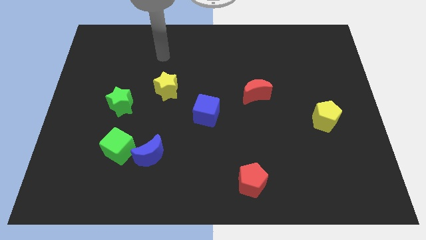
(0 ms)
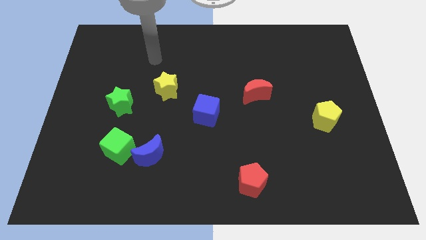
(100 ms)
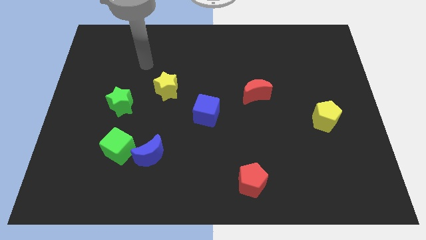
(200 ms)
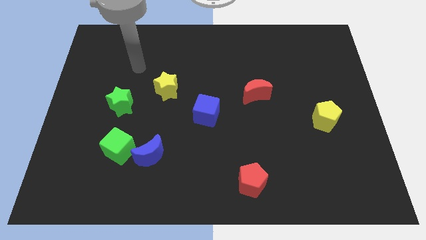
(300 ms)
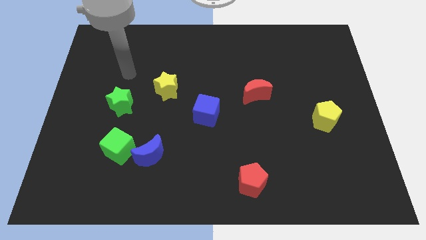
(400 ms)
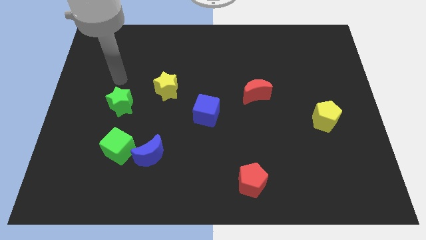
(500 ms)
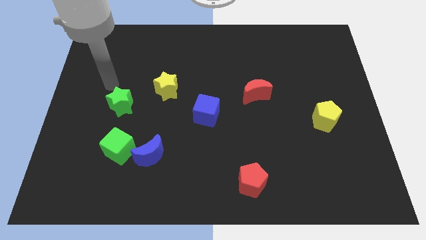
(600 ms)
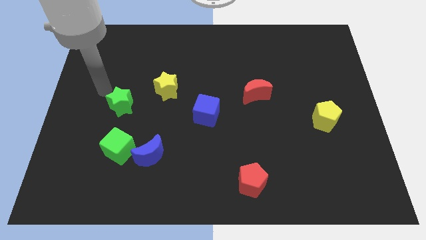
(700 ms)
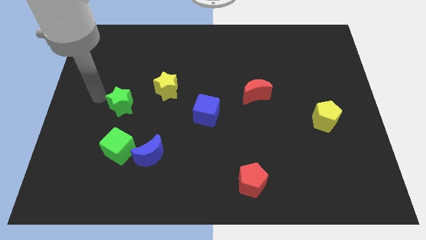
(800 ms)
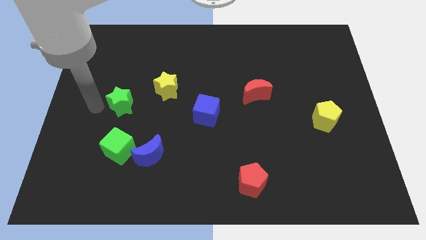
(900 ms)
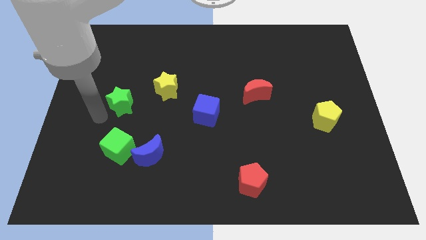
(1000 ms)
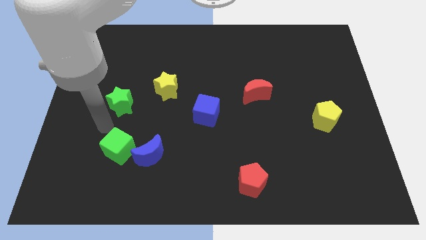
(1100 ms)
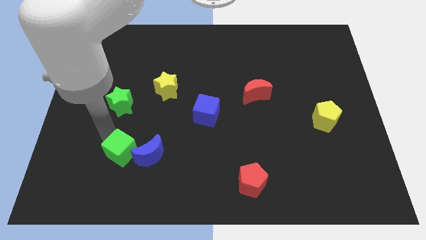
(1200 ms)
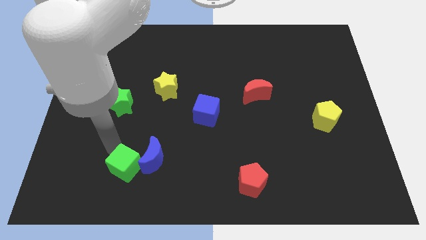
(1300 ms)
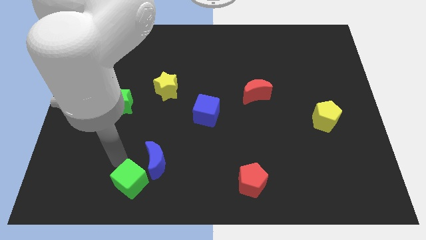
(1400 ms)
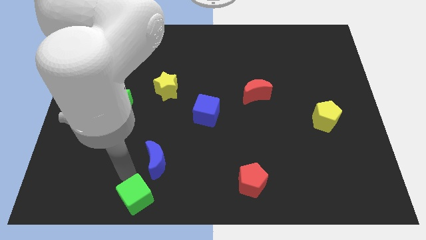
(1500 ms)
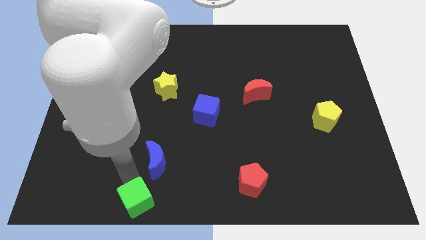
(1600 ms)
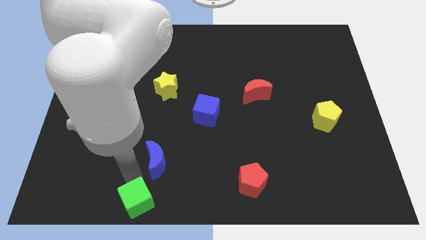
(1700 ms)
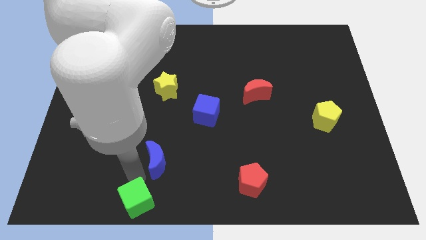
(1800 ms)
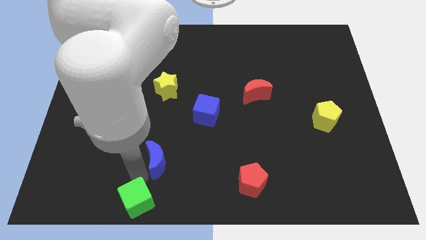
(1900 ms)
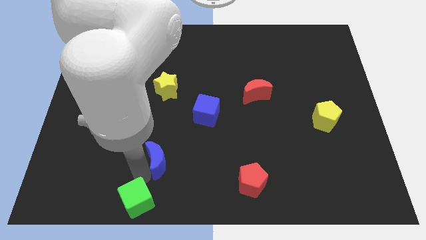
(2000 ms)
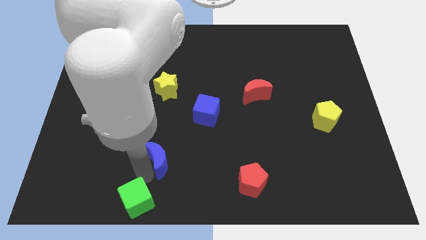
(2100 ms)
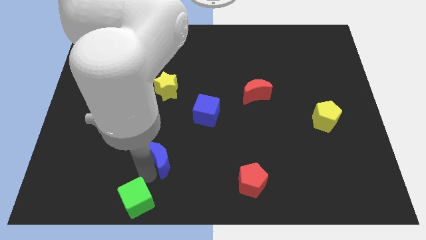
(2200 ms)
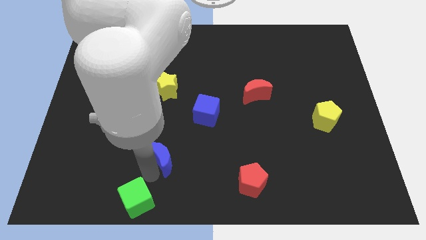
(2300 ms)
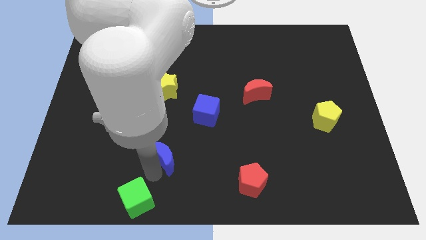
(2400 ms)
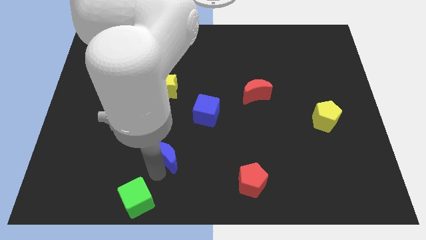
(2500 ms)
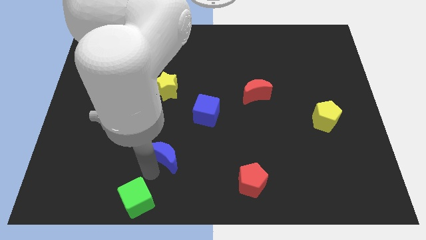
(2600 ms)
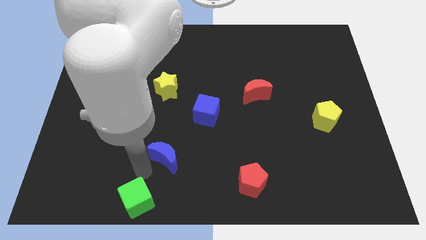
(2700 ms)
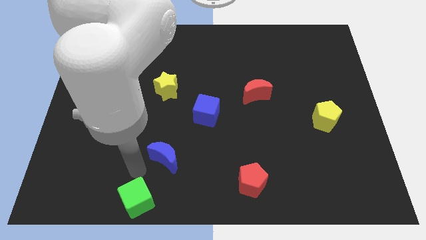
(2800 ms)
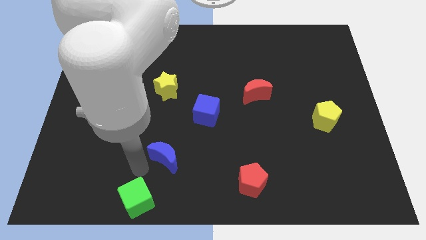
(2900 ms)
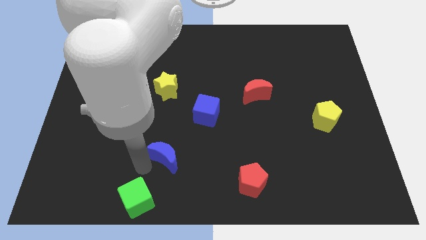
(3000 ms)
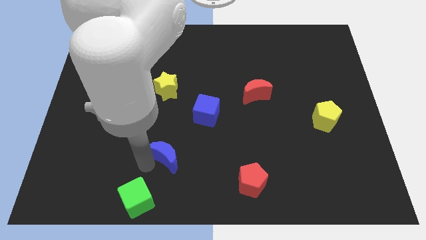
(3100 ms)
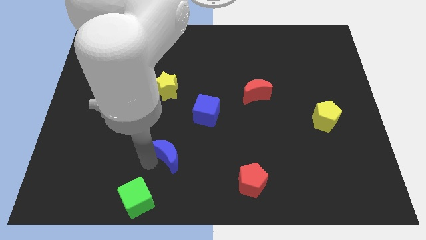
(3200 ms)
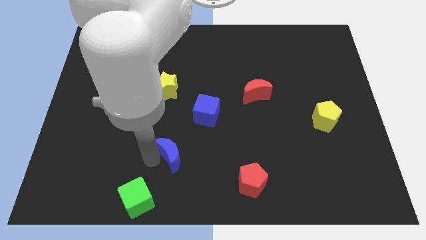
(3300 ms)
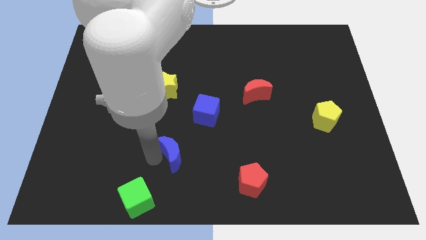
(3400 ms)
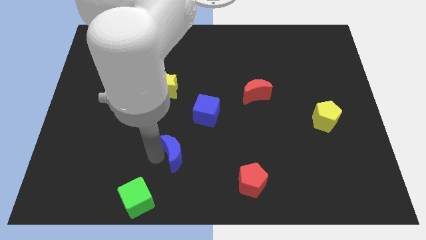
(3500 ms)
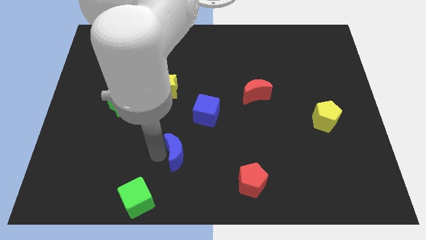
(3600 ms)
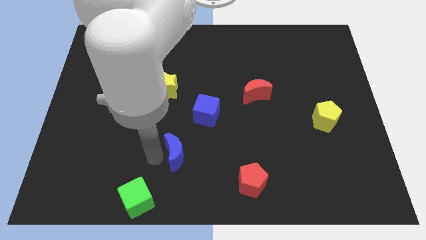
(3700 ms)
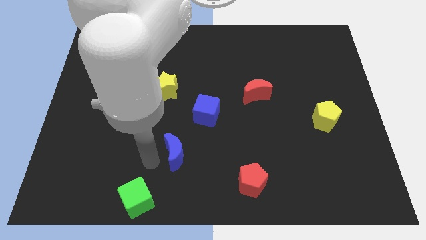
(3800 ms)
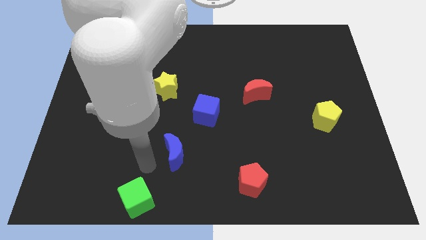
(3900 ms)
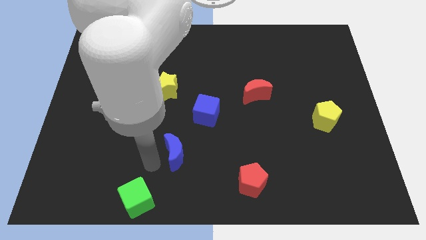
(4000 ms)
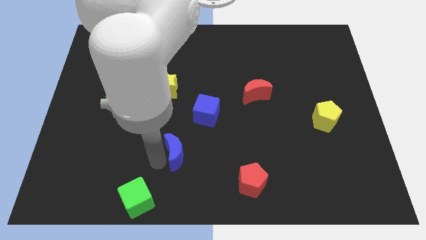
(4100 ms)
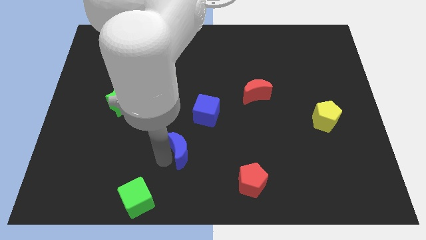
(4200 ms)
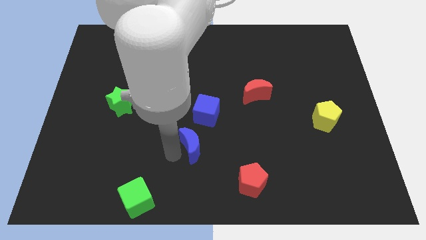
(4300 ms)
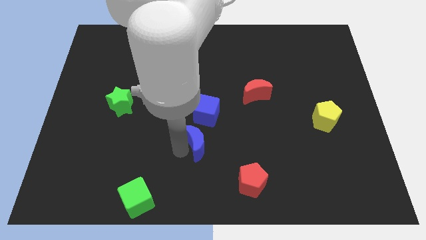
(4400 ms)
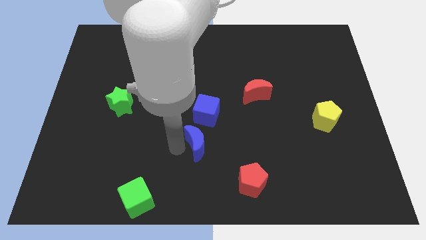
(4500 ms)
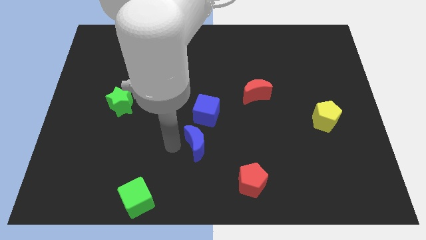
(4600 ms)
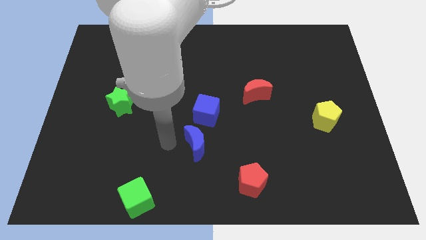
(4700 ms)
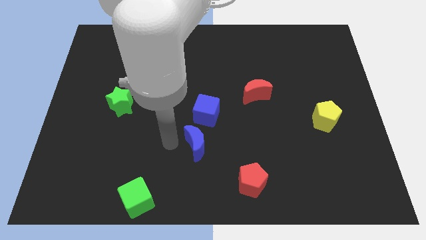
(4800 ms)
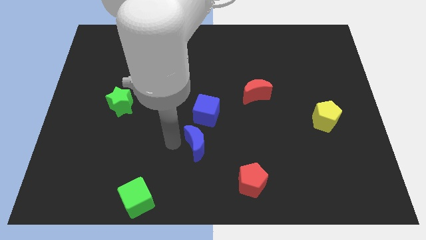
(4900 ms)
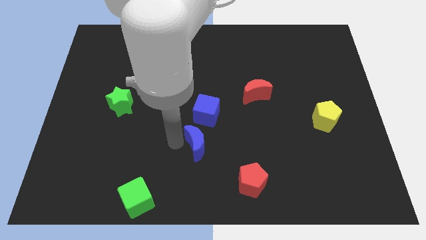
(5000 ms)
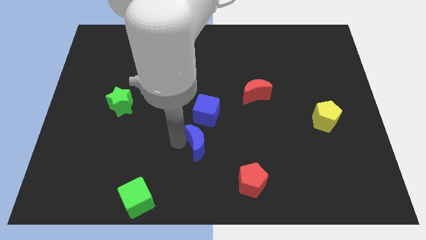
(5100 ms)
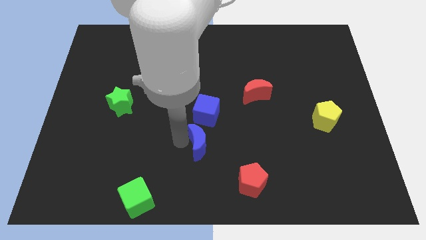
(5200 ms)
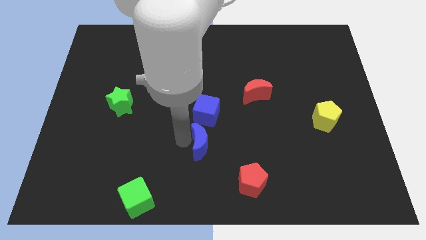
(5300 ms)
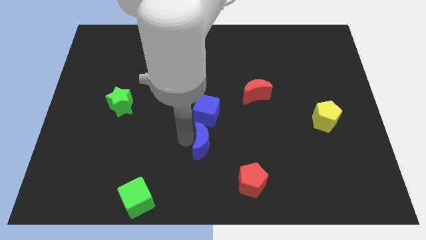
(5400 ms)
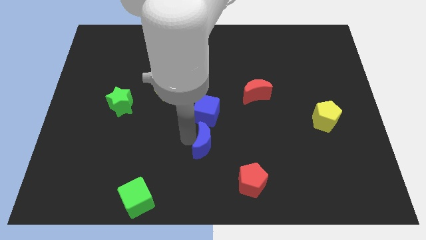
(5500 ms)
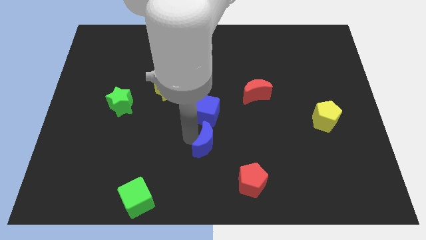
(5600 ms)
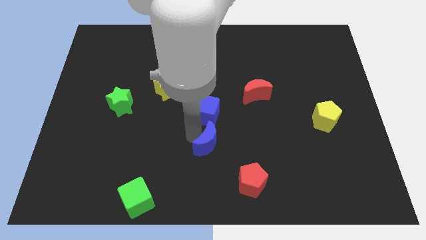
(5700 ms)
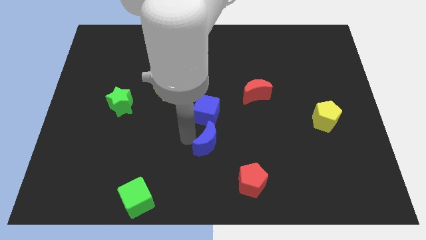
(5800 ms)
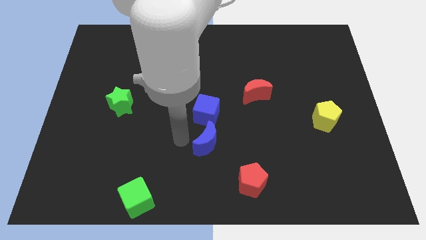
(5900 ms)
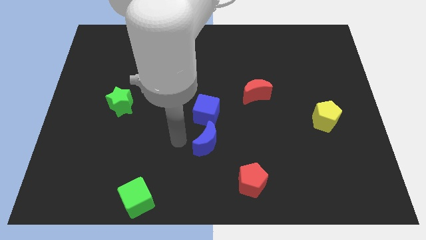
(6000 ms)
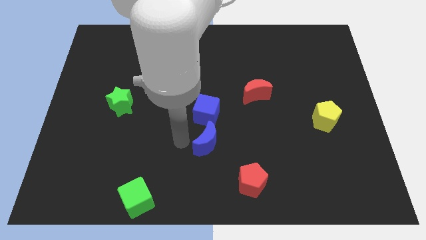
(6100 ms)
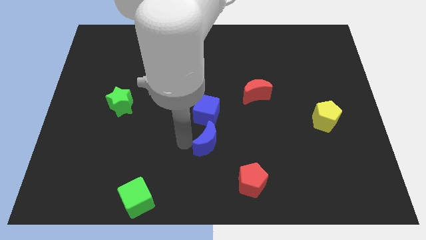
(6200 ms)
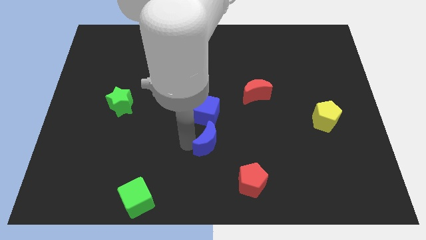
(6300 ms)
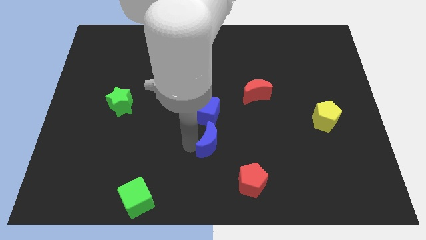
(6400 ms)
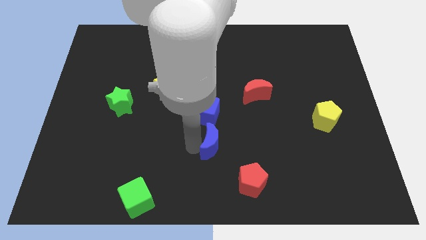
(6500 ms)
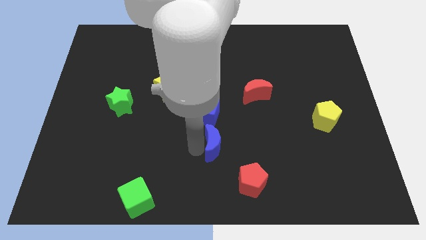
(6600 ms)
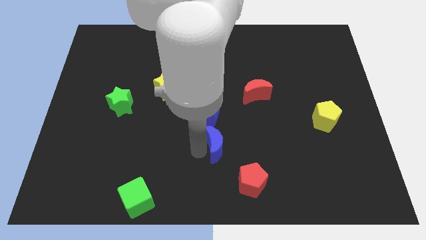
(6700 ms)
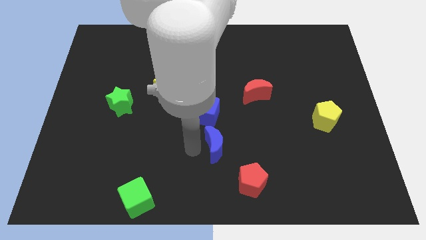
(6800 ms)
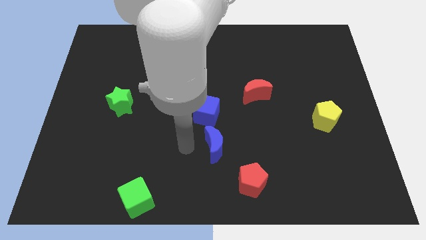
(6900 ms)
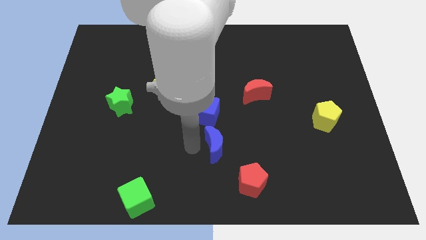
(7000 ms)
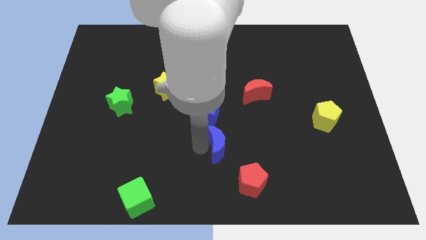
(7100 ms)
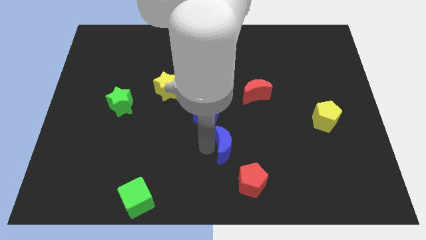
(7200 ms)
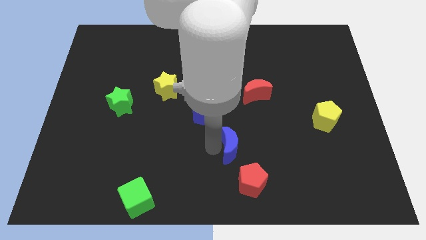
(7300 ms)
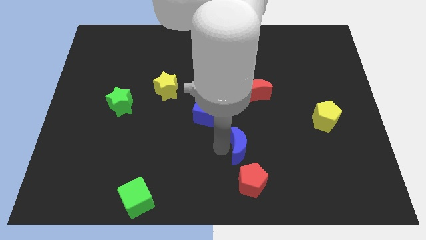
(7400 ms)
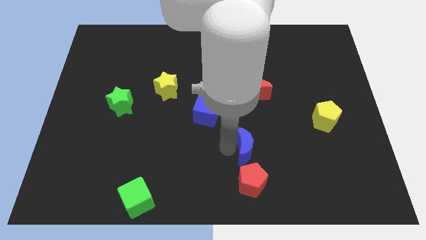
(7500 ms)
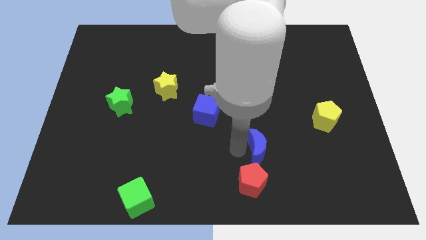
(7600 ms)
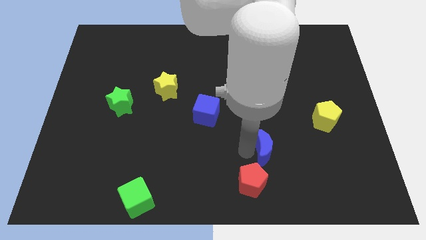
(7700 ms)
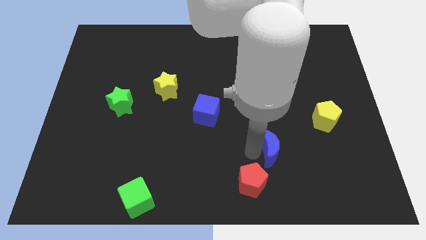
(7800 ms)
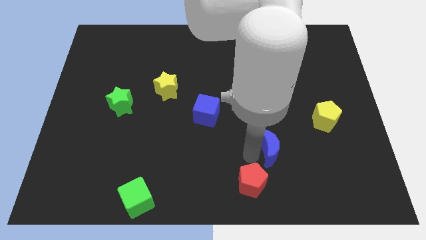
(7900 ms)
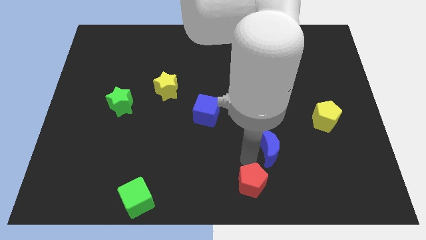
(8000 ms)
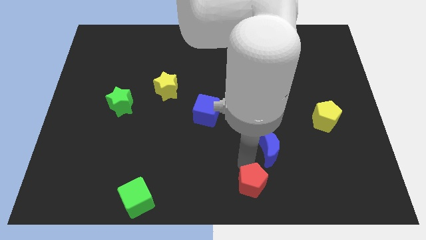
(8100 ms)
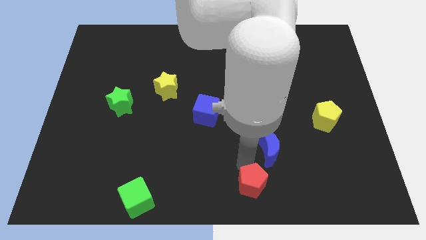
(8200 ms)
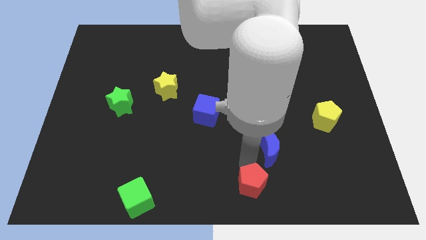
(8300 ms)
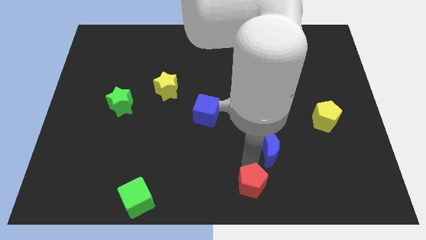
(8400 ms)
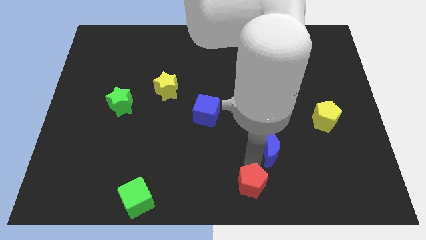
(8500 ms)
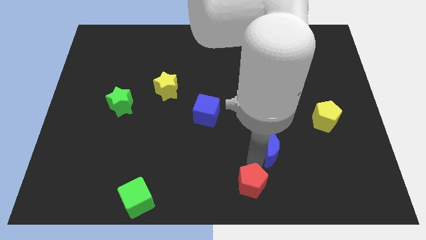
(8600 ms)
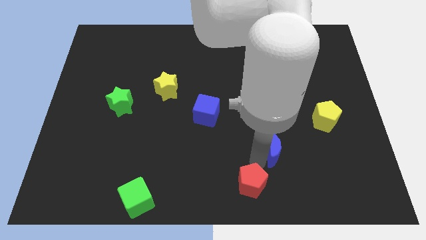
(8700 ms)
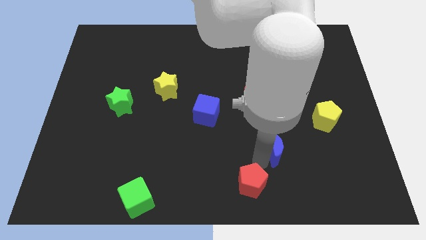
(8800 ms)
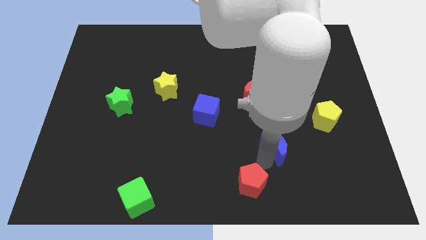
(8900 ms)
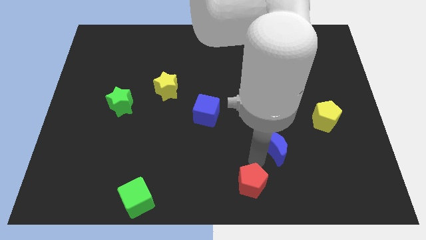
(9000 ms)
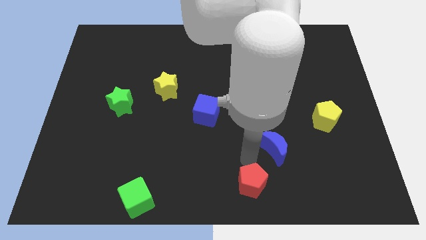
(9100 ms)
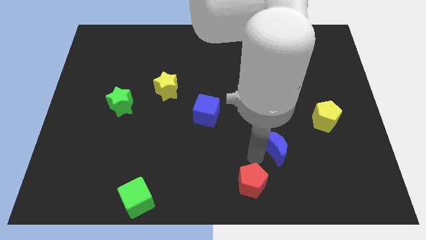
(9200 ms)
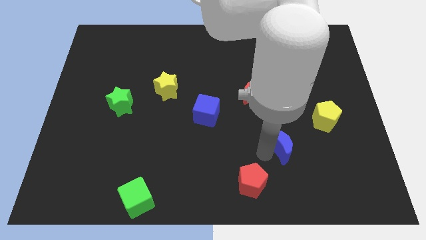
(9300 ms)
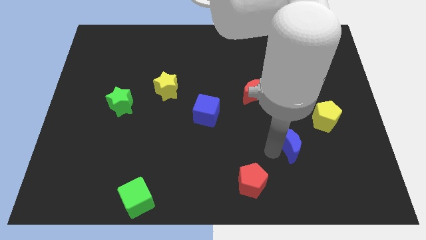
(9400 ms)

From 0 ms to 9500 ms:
move the blue moon to the bottom left of the yellow pentagon
